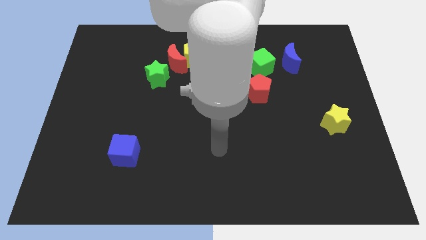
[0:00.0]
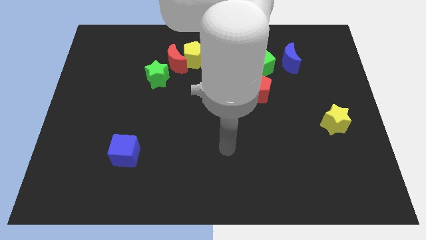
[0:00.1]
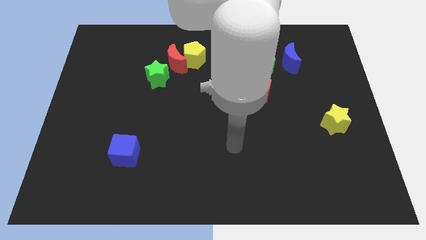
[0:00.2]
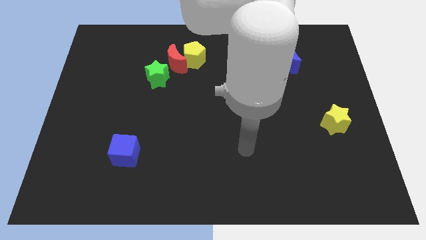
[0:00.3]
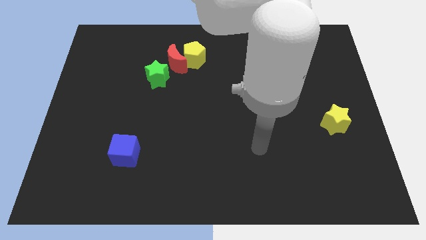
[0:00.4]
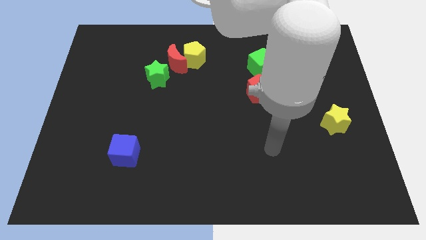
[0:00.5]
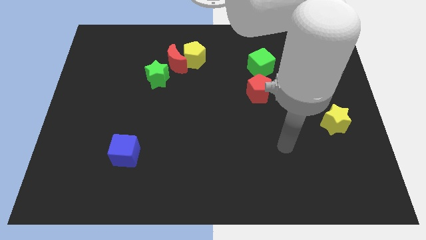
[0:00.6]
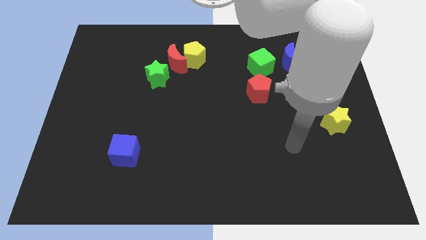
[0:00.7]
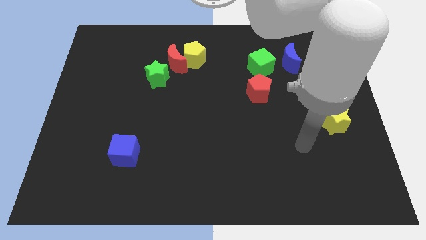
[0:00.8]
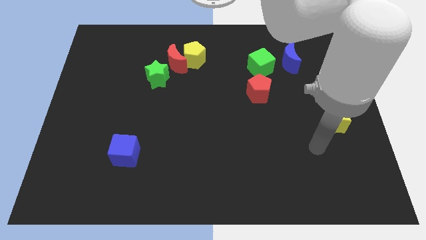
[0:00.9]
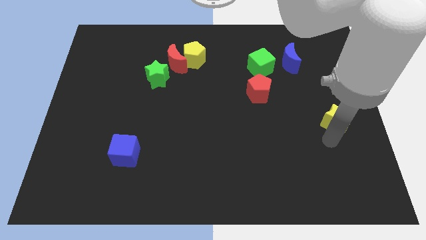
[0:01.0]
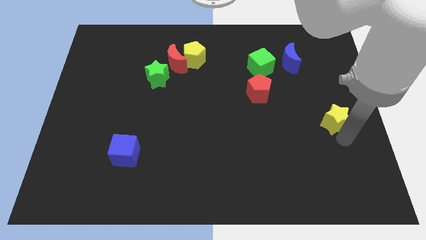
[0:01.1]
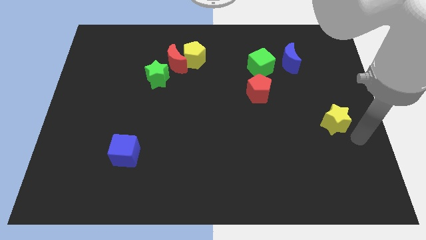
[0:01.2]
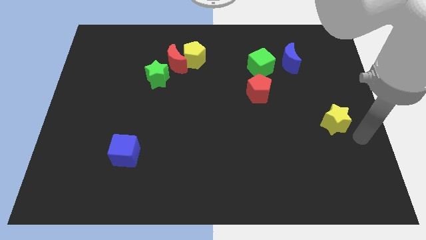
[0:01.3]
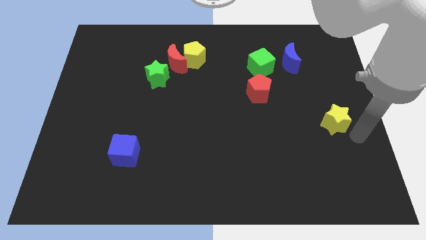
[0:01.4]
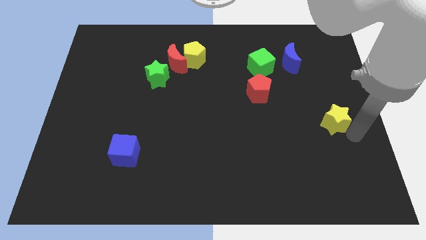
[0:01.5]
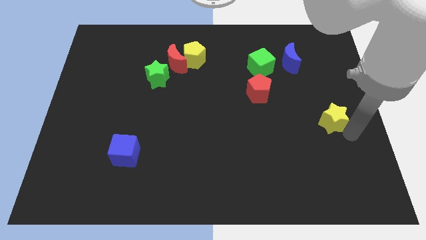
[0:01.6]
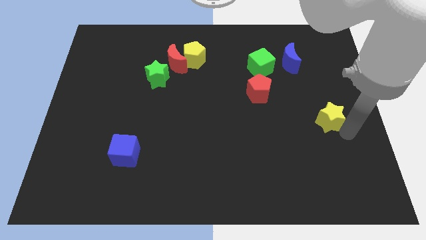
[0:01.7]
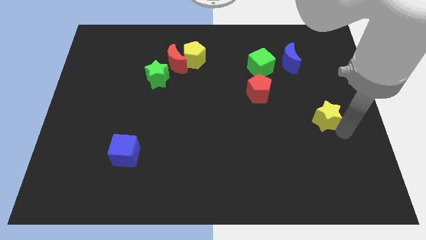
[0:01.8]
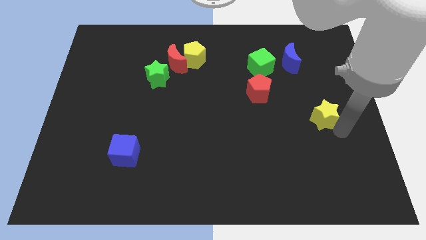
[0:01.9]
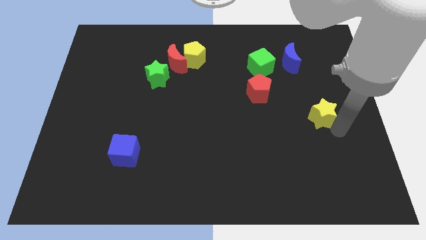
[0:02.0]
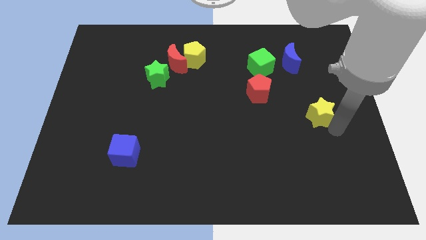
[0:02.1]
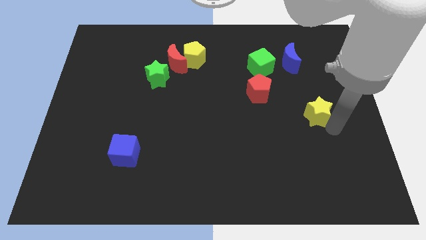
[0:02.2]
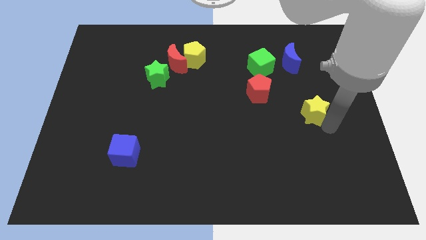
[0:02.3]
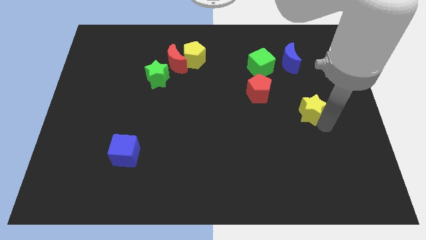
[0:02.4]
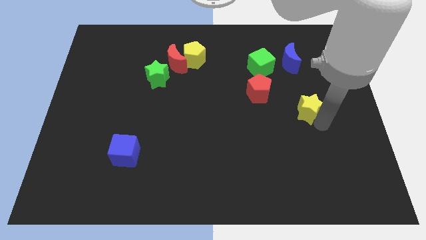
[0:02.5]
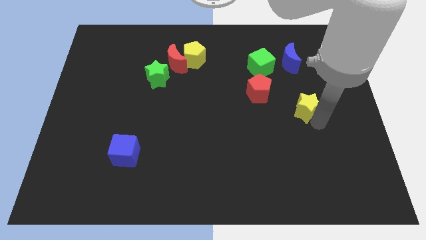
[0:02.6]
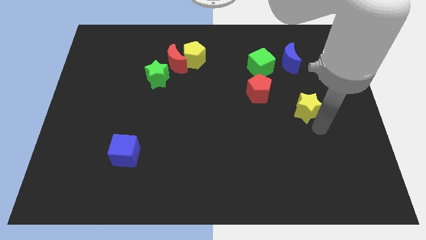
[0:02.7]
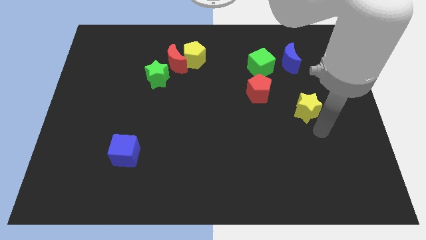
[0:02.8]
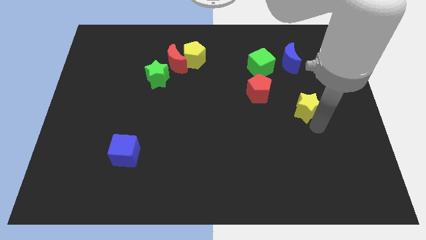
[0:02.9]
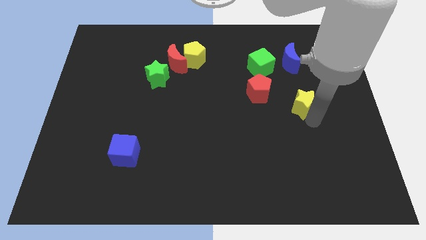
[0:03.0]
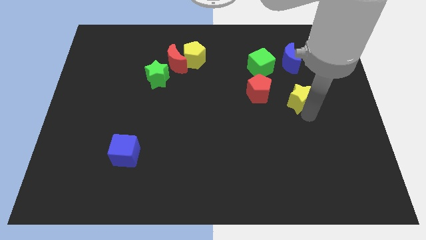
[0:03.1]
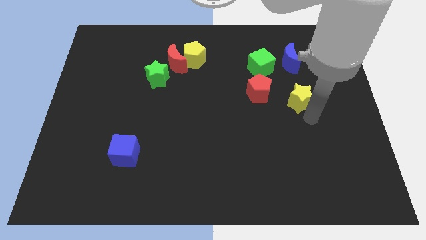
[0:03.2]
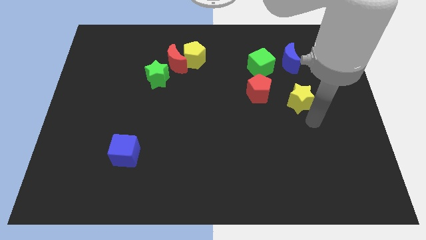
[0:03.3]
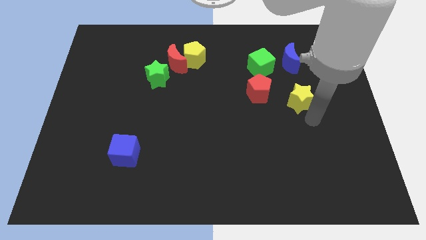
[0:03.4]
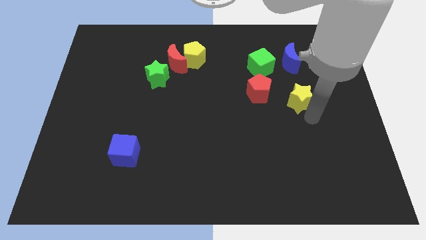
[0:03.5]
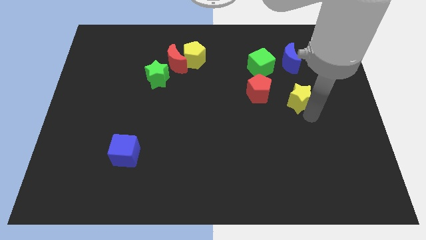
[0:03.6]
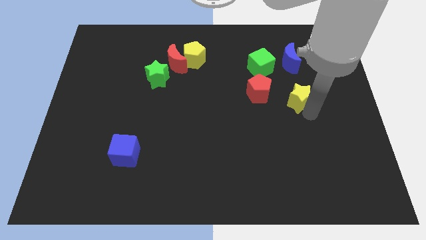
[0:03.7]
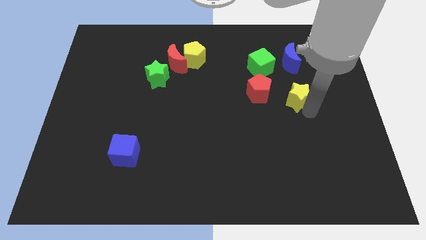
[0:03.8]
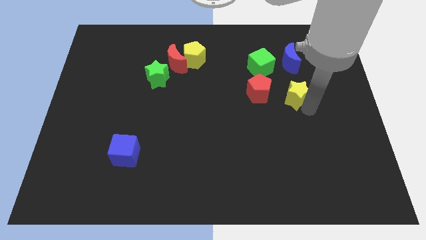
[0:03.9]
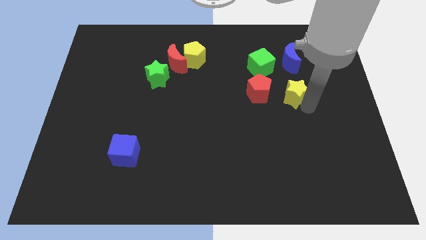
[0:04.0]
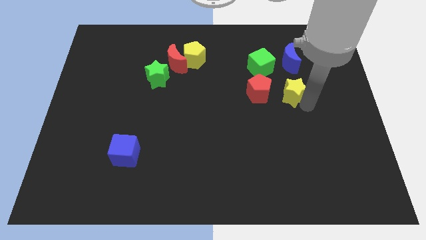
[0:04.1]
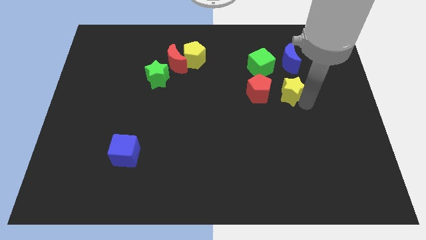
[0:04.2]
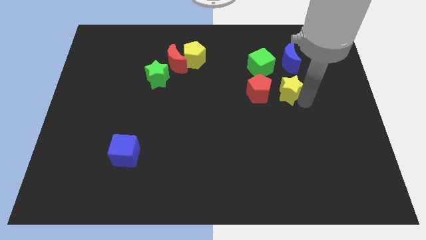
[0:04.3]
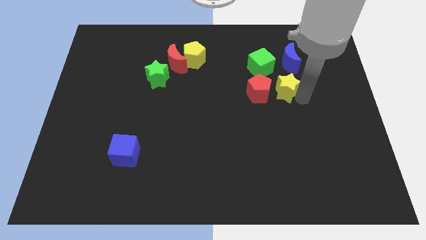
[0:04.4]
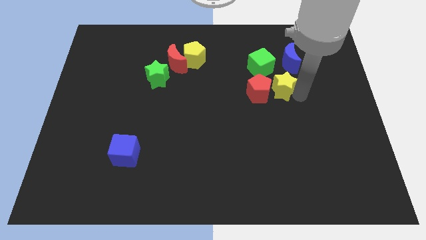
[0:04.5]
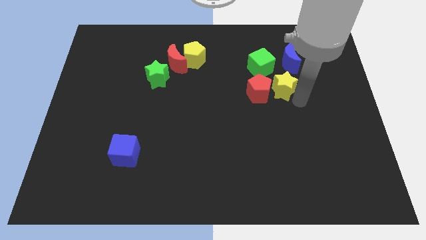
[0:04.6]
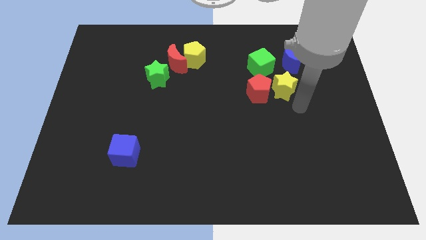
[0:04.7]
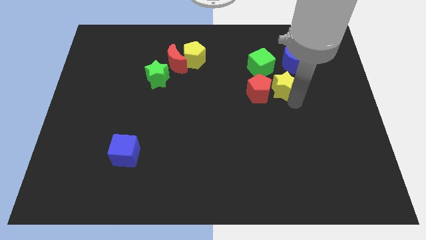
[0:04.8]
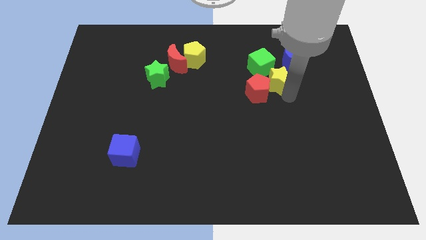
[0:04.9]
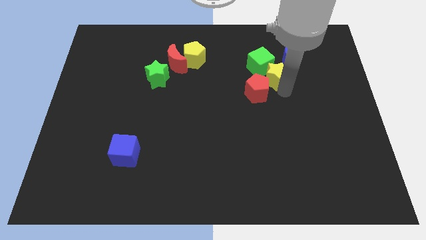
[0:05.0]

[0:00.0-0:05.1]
put the yellow star to the green cube

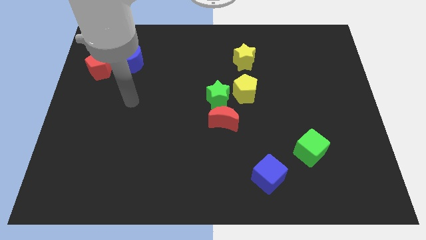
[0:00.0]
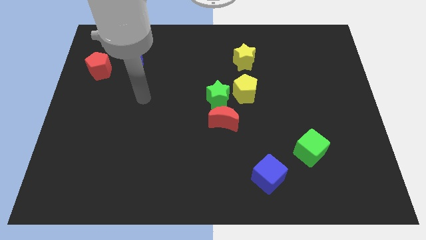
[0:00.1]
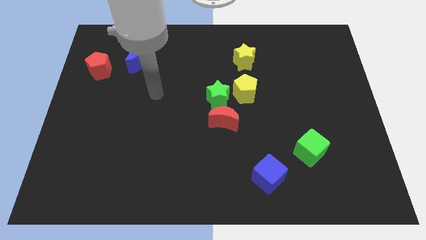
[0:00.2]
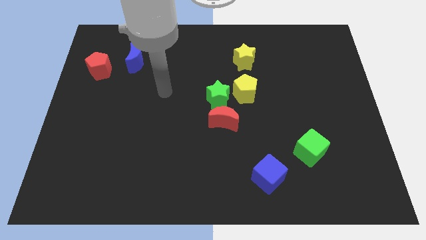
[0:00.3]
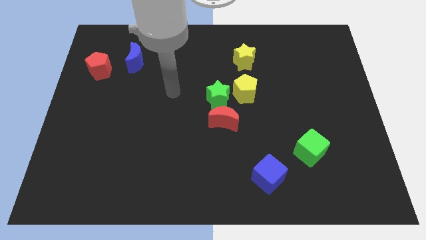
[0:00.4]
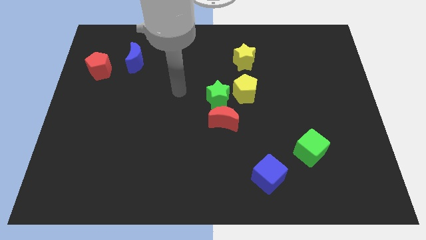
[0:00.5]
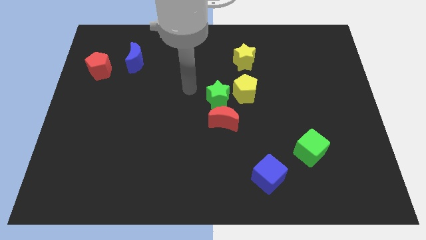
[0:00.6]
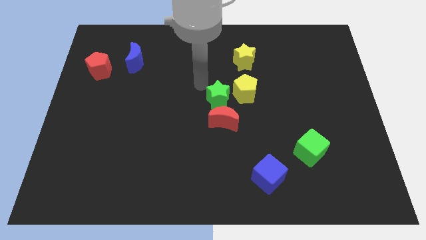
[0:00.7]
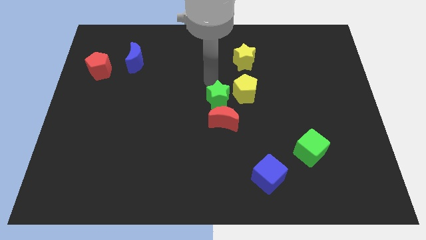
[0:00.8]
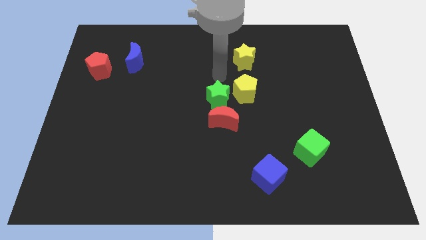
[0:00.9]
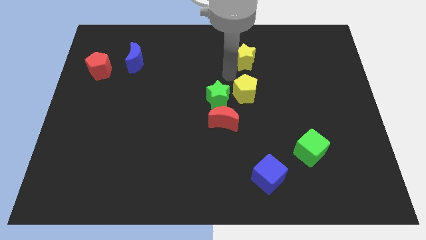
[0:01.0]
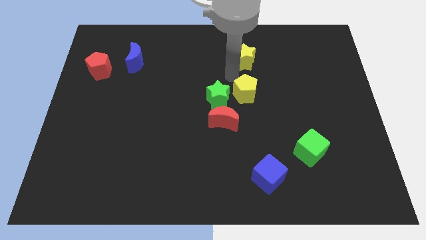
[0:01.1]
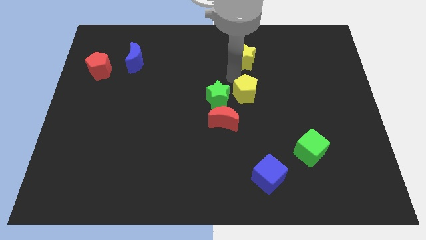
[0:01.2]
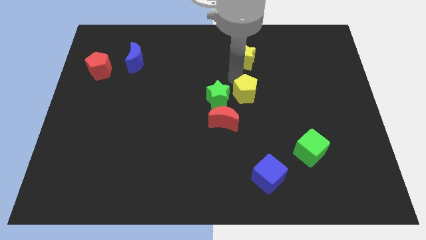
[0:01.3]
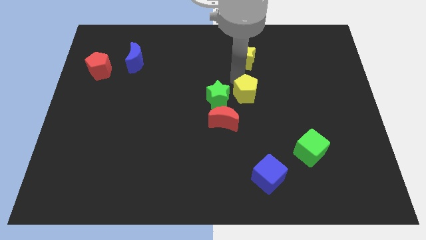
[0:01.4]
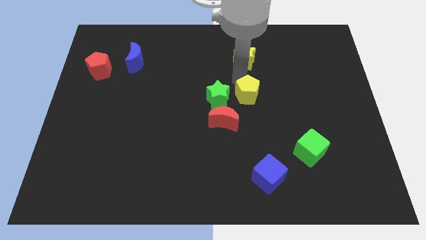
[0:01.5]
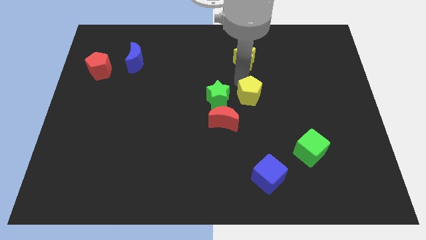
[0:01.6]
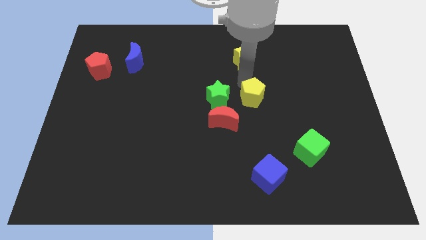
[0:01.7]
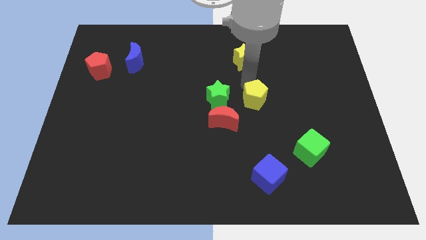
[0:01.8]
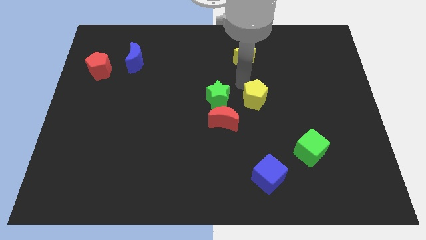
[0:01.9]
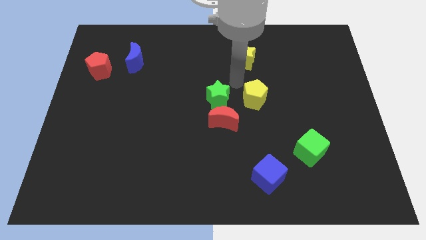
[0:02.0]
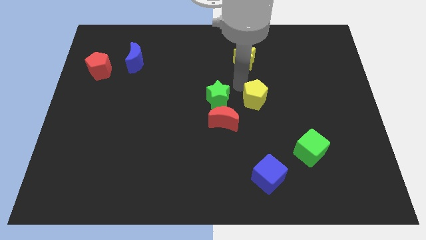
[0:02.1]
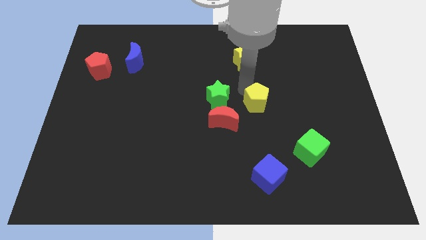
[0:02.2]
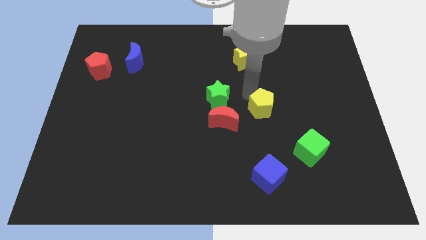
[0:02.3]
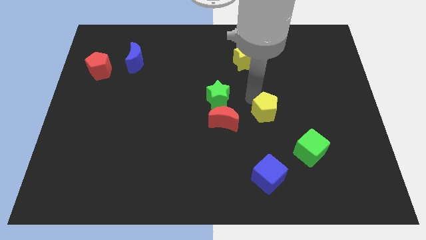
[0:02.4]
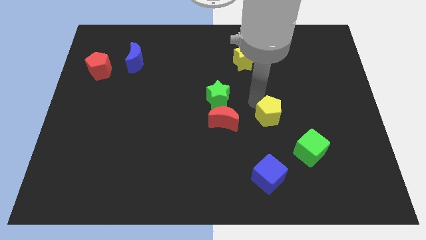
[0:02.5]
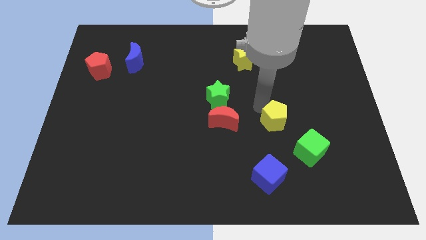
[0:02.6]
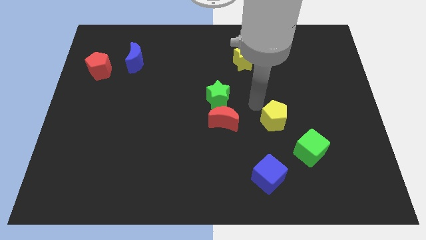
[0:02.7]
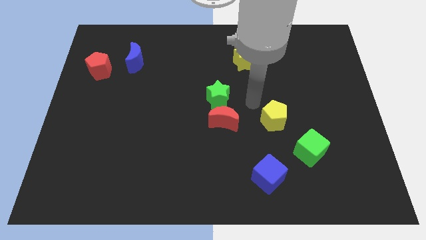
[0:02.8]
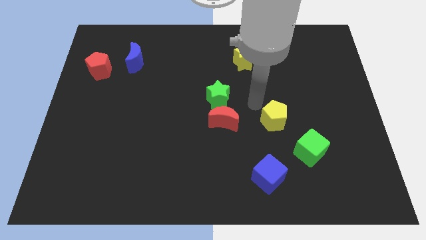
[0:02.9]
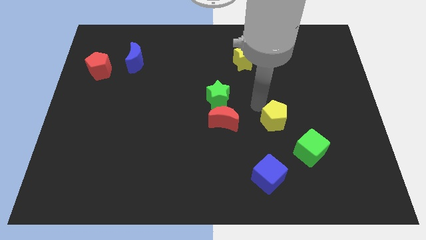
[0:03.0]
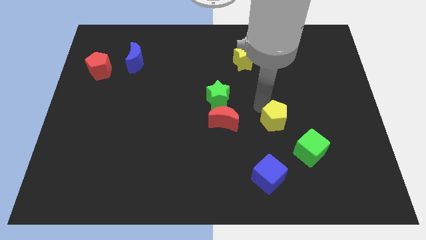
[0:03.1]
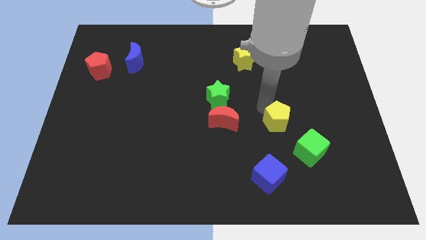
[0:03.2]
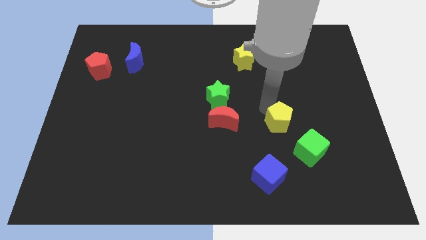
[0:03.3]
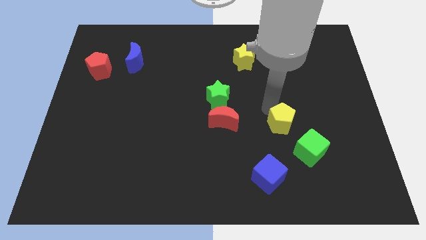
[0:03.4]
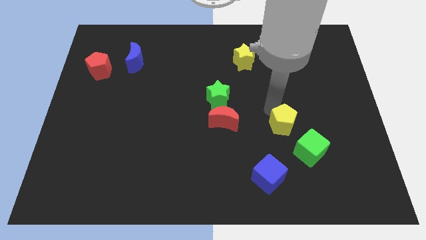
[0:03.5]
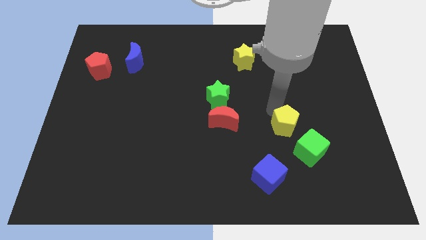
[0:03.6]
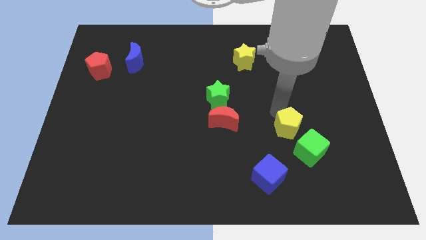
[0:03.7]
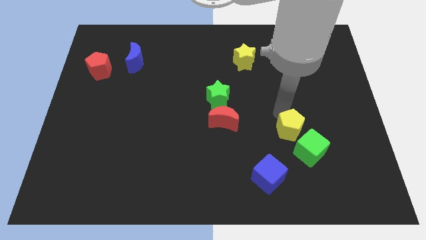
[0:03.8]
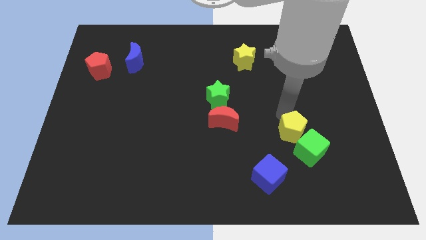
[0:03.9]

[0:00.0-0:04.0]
put the yellow pentagon close to the green cube
